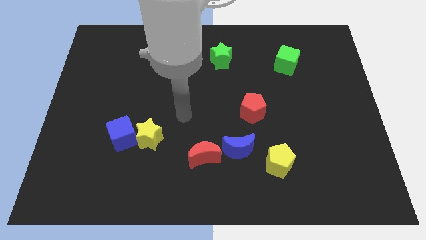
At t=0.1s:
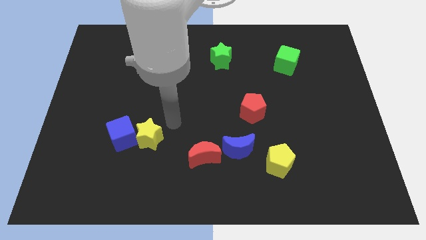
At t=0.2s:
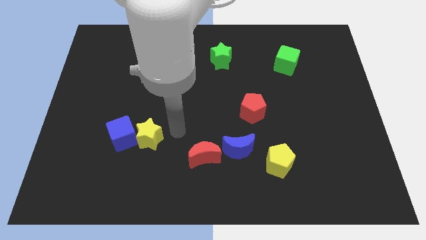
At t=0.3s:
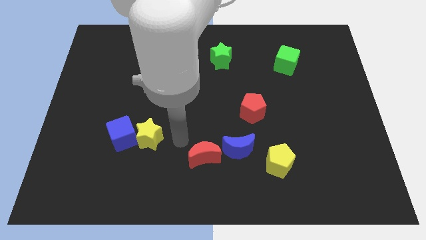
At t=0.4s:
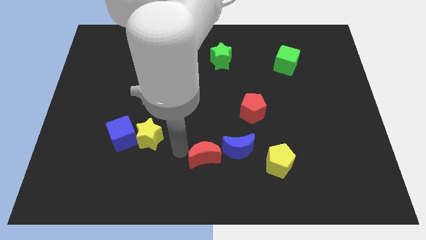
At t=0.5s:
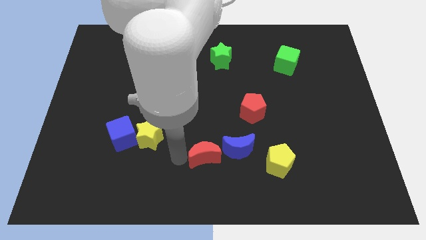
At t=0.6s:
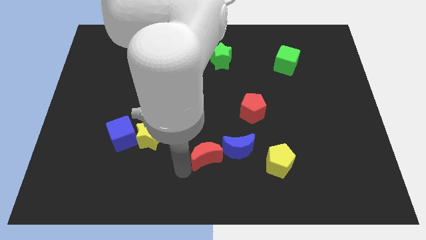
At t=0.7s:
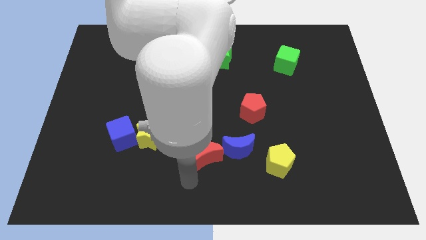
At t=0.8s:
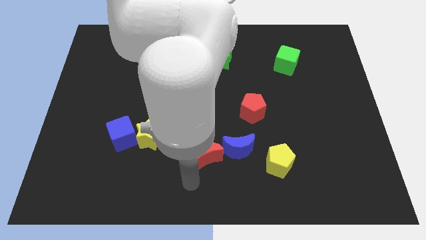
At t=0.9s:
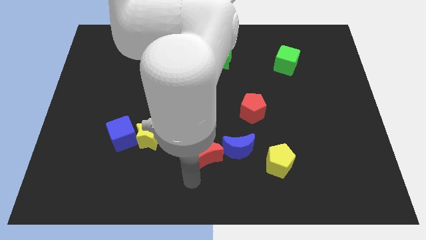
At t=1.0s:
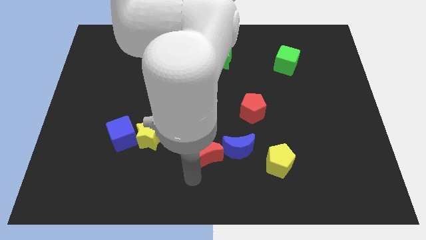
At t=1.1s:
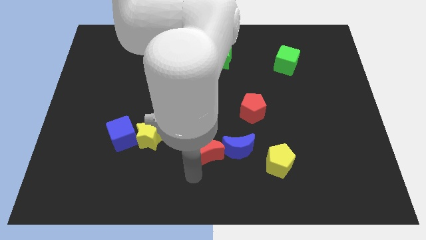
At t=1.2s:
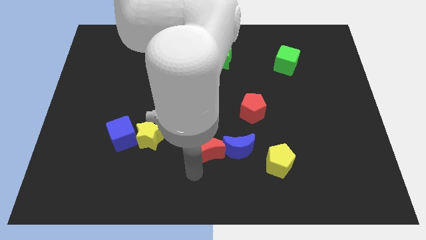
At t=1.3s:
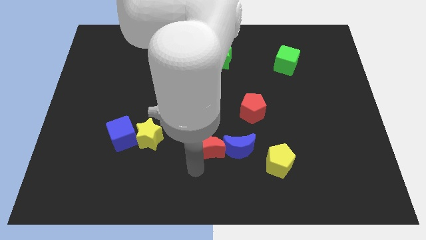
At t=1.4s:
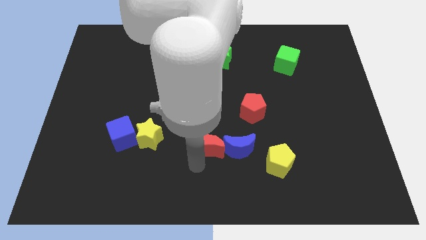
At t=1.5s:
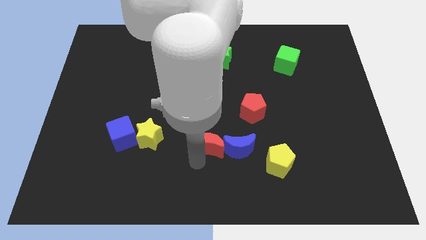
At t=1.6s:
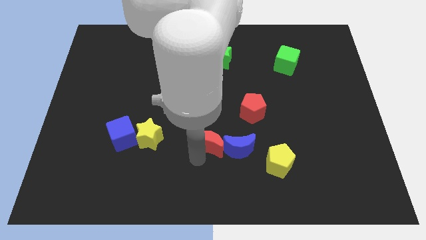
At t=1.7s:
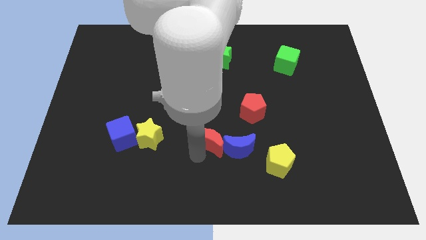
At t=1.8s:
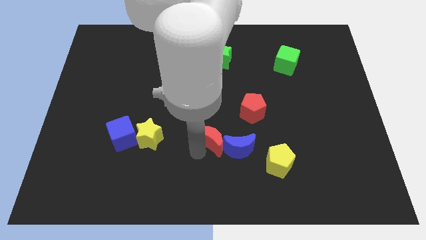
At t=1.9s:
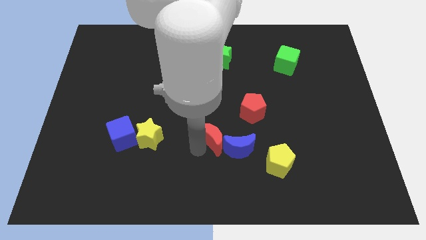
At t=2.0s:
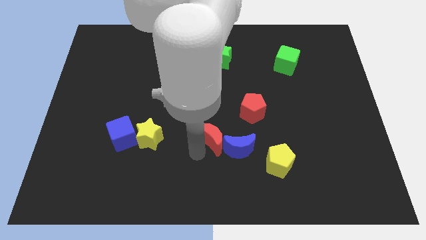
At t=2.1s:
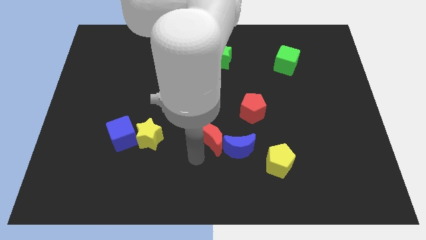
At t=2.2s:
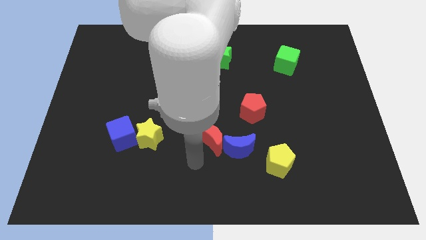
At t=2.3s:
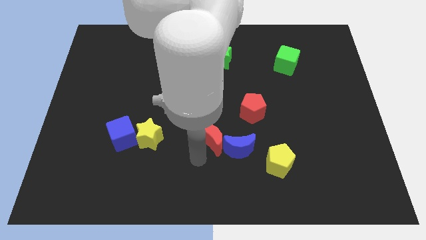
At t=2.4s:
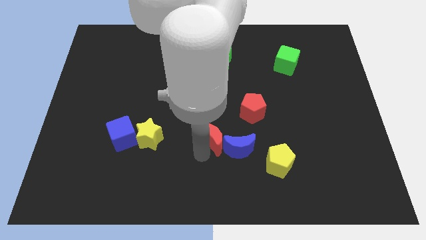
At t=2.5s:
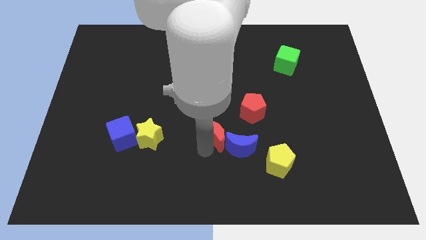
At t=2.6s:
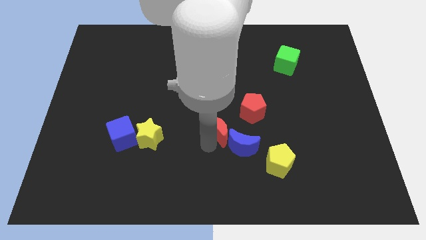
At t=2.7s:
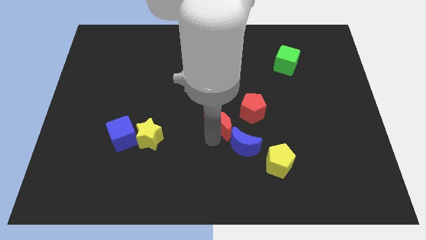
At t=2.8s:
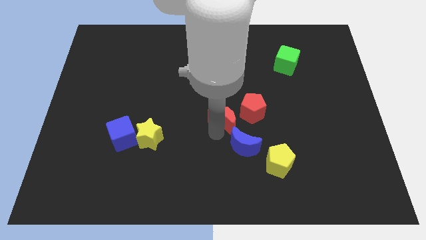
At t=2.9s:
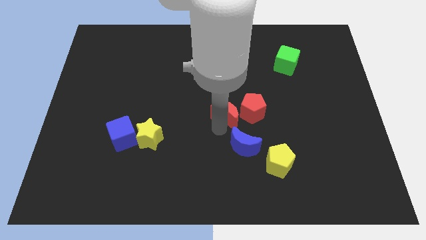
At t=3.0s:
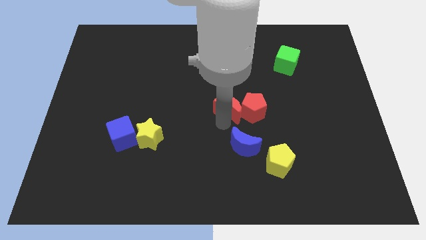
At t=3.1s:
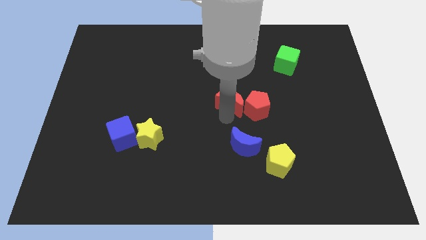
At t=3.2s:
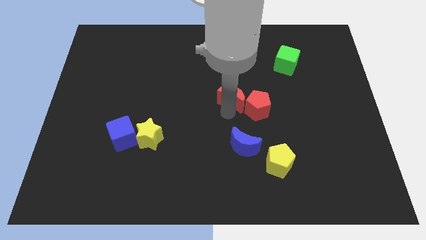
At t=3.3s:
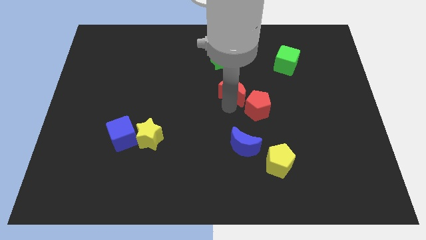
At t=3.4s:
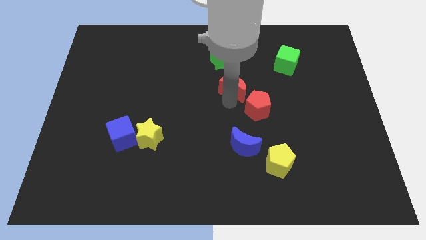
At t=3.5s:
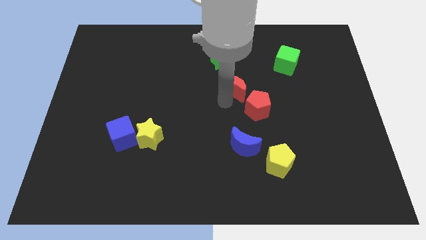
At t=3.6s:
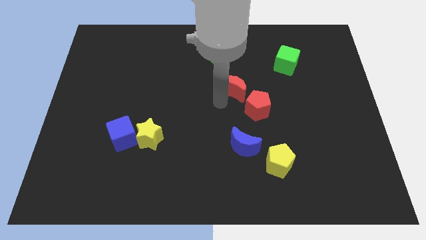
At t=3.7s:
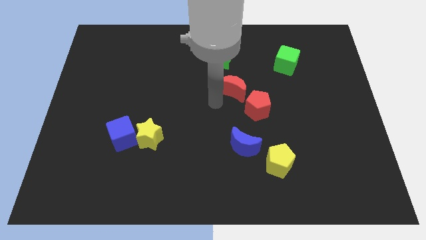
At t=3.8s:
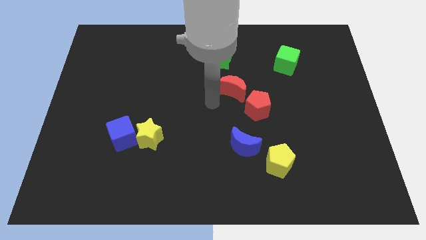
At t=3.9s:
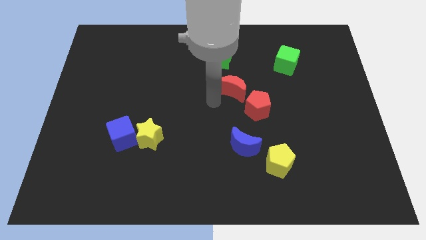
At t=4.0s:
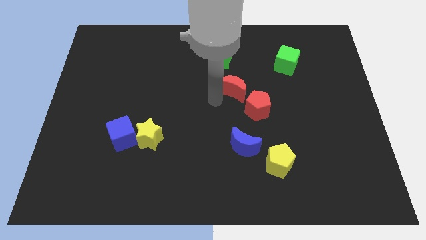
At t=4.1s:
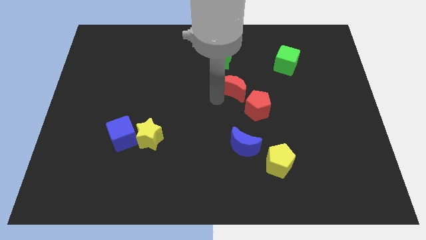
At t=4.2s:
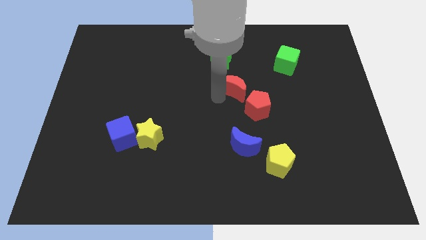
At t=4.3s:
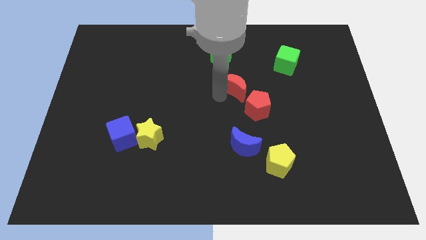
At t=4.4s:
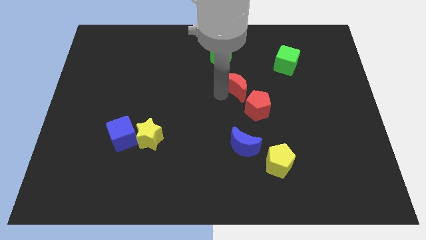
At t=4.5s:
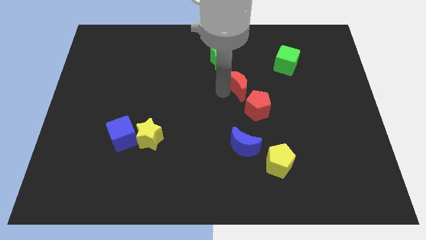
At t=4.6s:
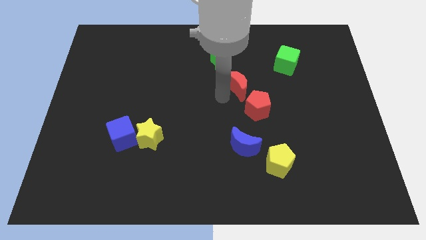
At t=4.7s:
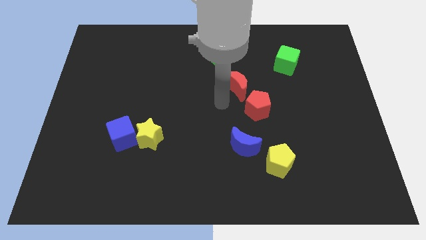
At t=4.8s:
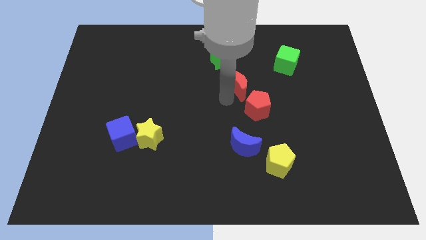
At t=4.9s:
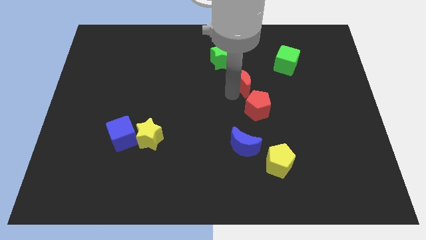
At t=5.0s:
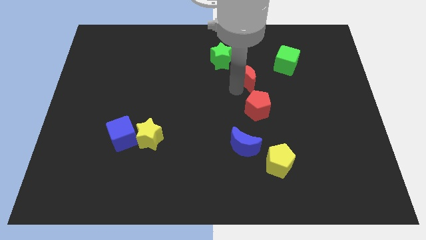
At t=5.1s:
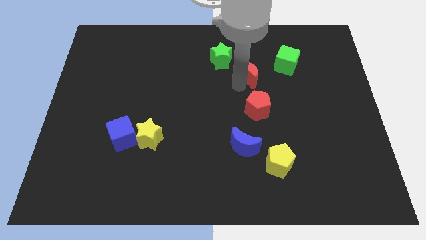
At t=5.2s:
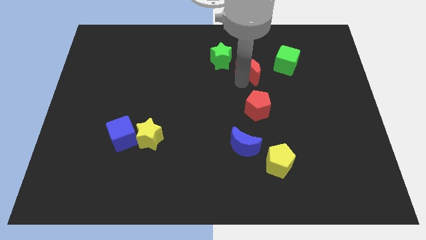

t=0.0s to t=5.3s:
push the red moon right of the green star

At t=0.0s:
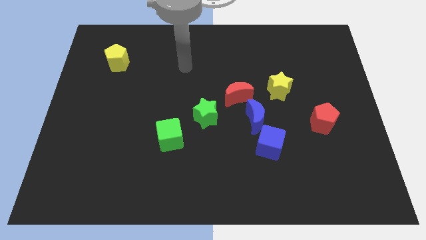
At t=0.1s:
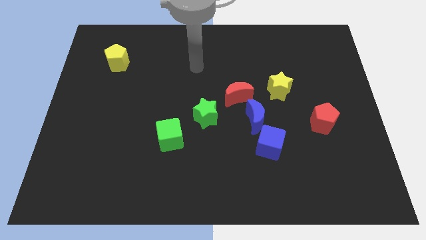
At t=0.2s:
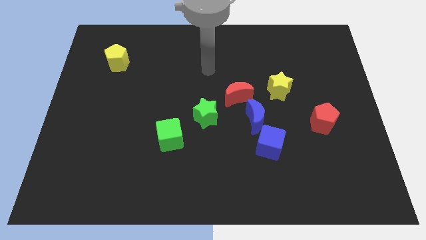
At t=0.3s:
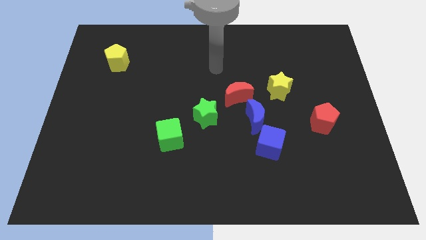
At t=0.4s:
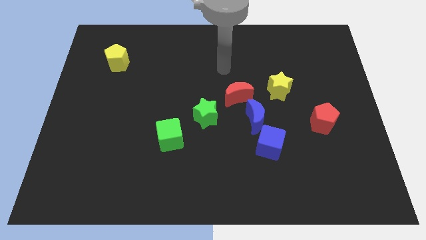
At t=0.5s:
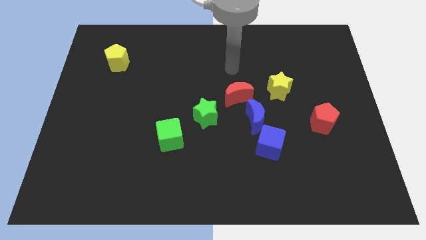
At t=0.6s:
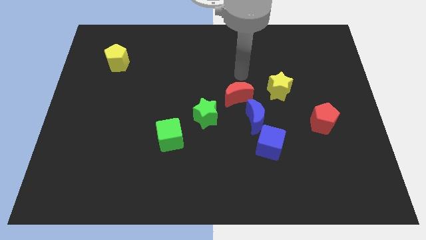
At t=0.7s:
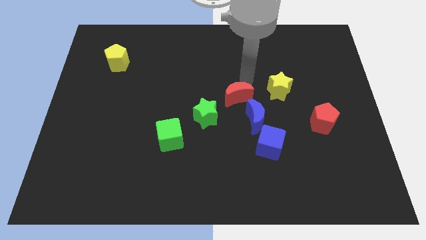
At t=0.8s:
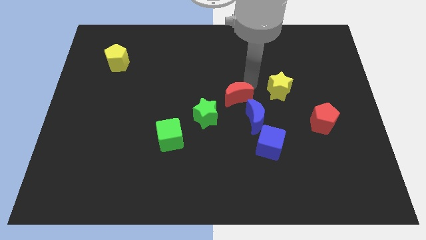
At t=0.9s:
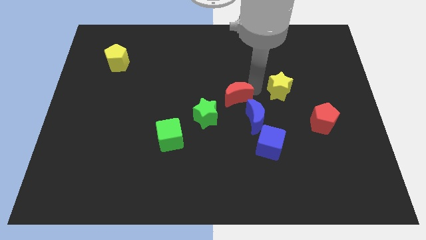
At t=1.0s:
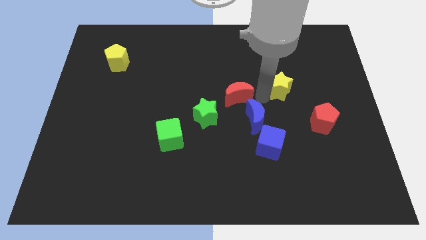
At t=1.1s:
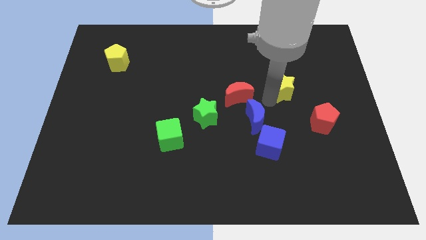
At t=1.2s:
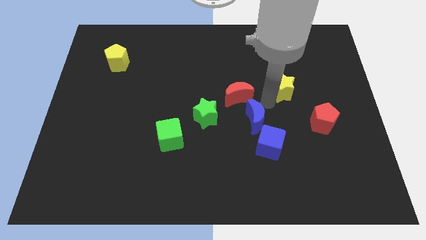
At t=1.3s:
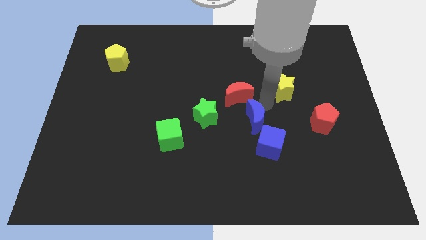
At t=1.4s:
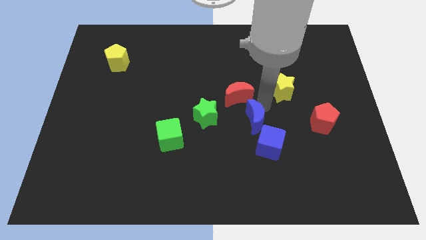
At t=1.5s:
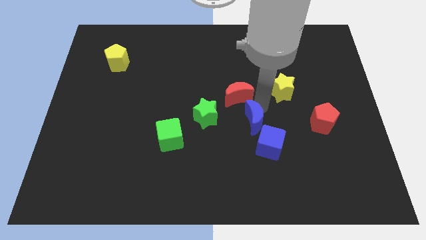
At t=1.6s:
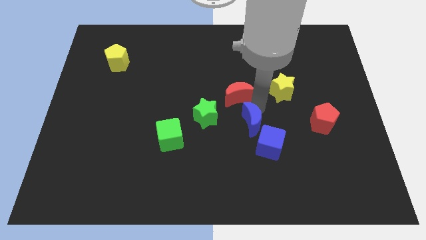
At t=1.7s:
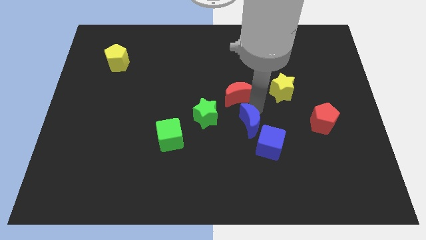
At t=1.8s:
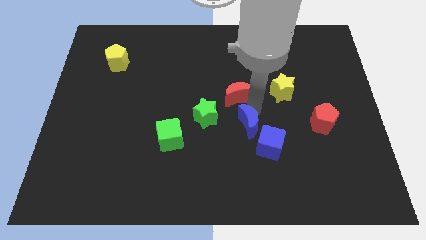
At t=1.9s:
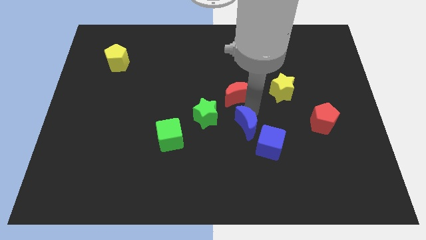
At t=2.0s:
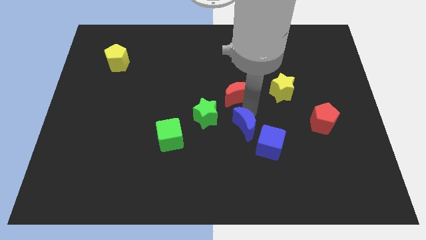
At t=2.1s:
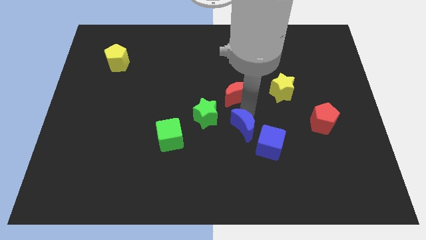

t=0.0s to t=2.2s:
move the blue moon just left of the blue cube
